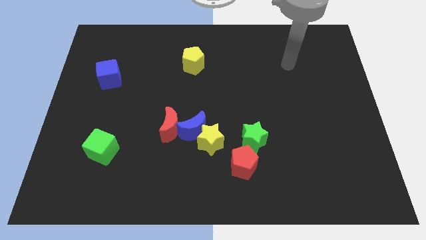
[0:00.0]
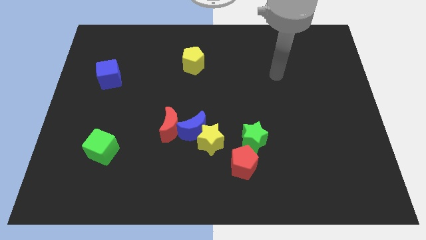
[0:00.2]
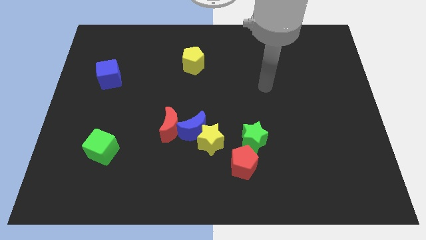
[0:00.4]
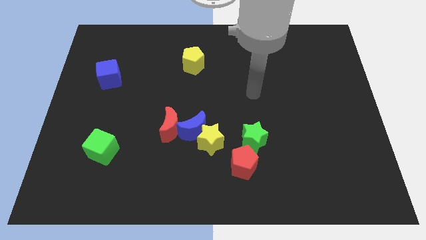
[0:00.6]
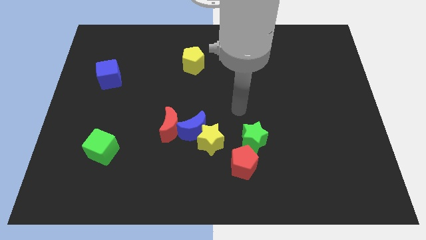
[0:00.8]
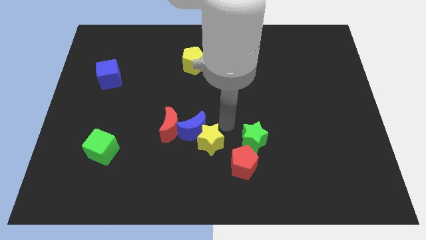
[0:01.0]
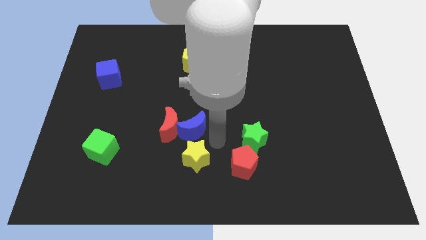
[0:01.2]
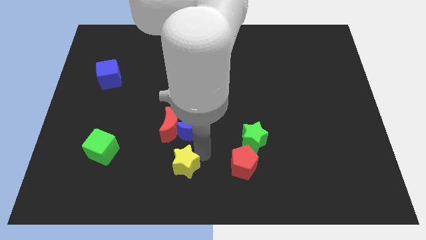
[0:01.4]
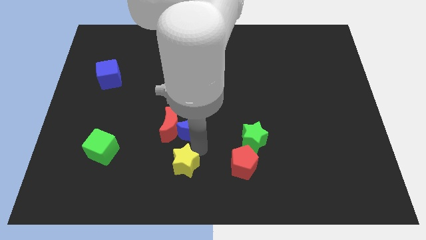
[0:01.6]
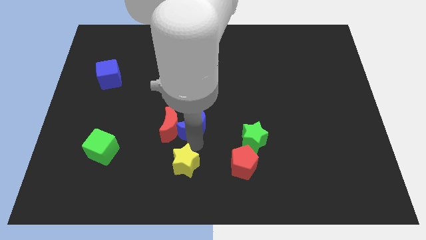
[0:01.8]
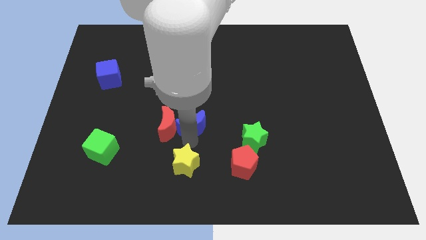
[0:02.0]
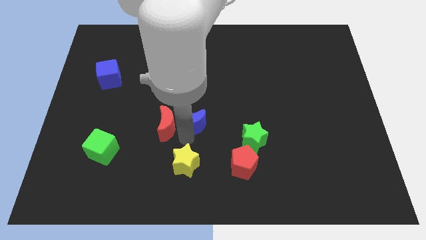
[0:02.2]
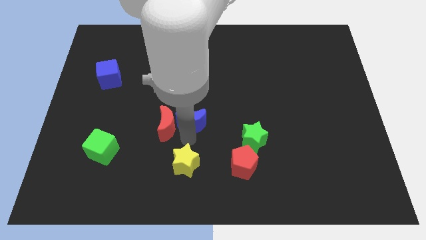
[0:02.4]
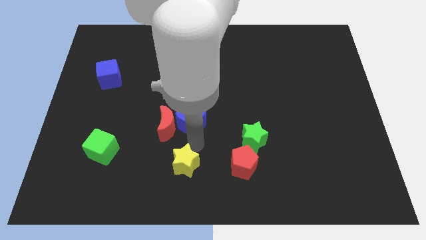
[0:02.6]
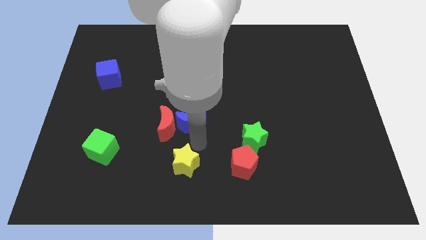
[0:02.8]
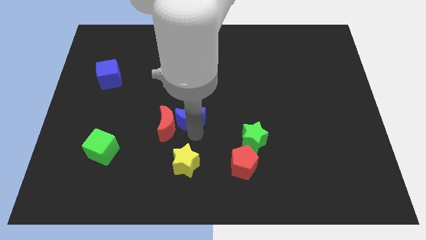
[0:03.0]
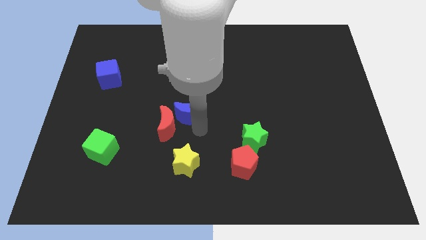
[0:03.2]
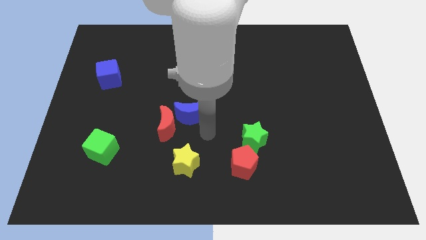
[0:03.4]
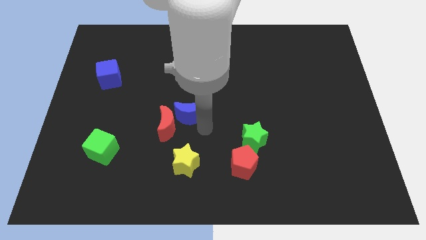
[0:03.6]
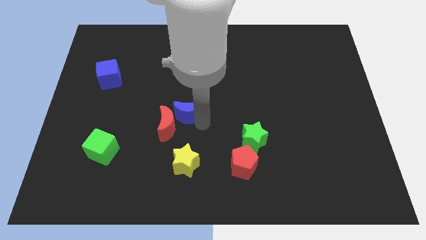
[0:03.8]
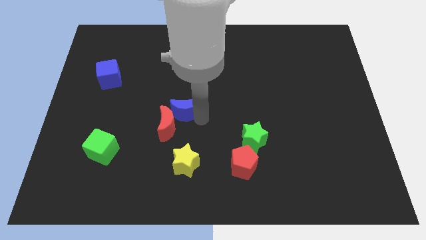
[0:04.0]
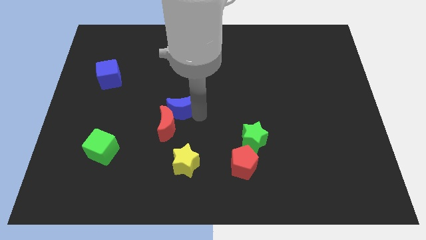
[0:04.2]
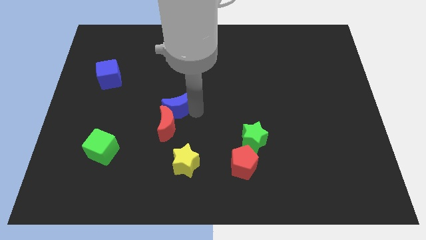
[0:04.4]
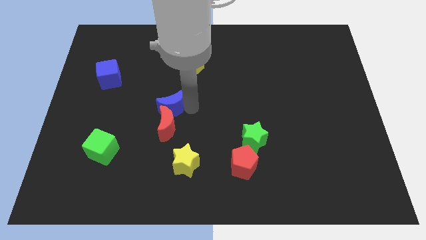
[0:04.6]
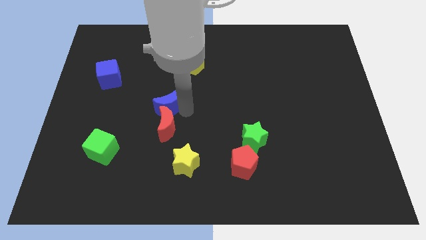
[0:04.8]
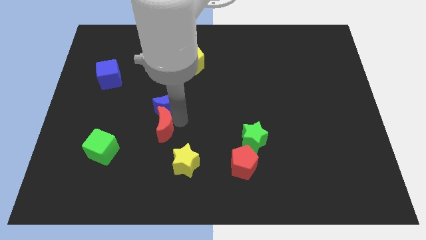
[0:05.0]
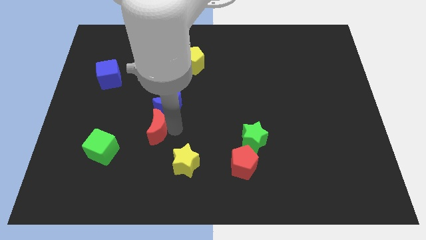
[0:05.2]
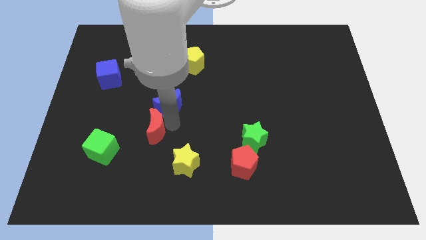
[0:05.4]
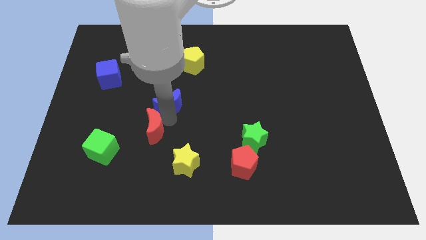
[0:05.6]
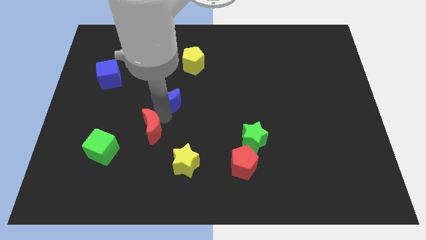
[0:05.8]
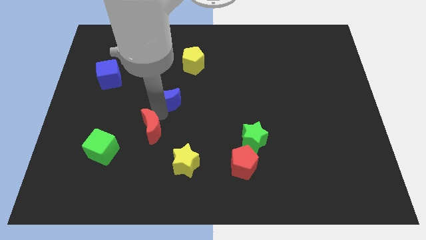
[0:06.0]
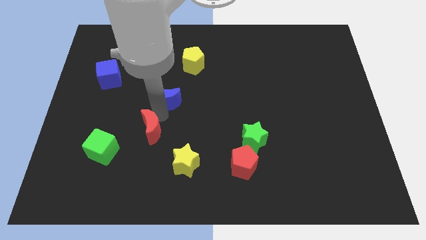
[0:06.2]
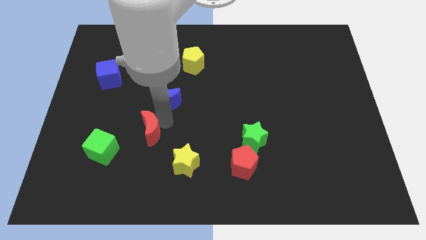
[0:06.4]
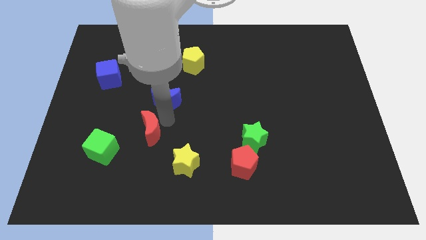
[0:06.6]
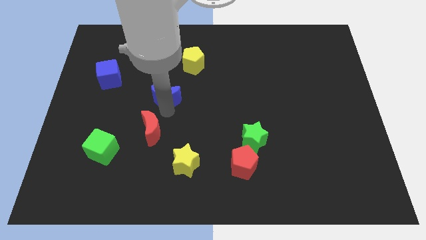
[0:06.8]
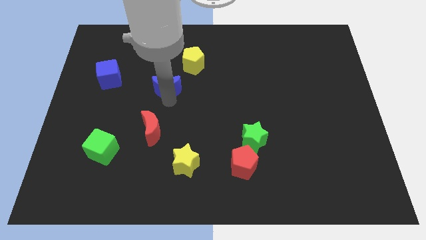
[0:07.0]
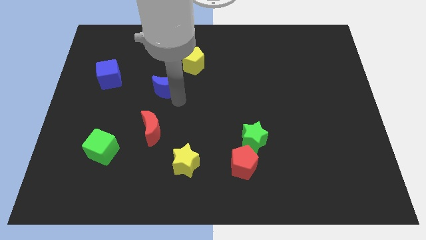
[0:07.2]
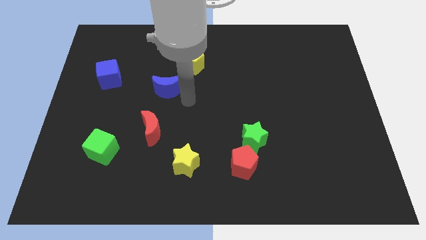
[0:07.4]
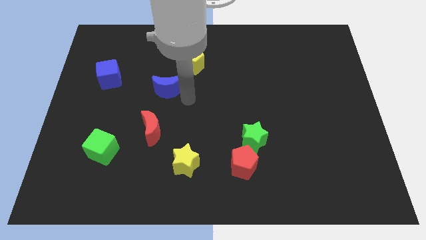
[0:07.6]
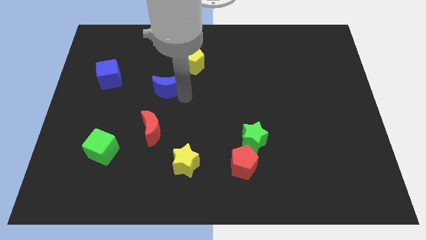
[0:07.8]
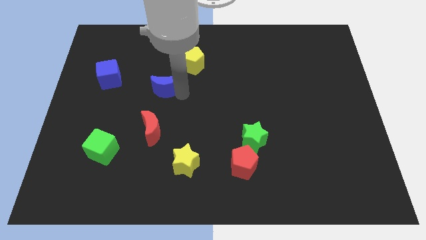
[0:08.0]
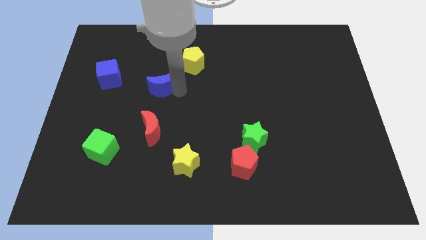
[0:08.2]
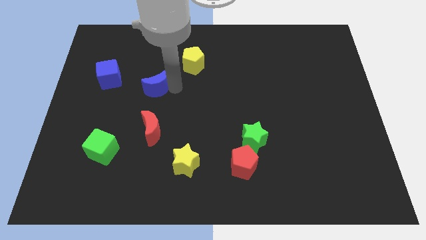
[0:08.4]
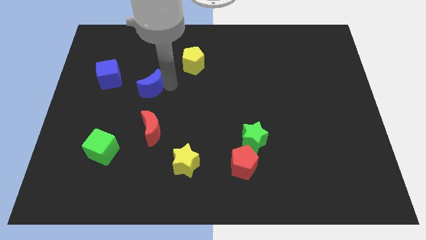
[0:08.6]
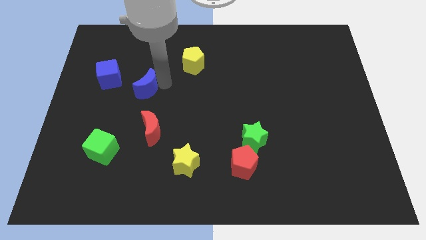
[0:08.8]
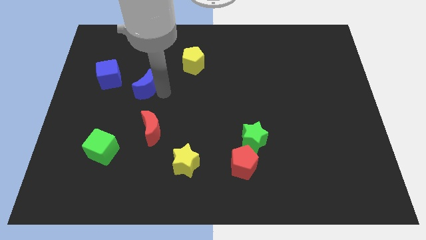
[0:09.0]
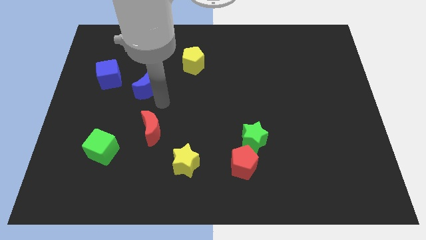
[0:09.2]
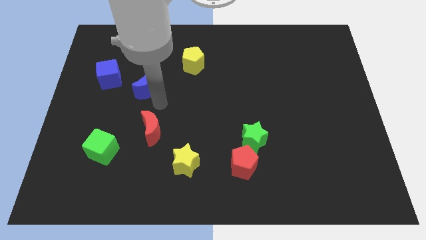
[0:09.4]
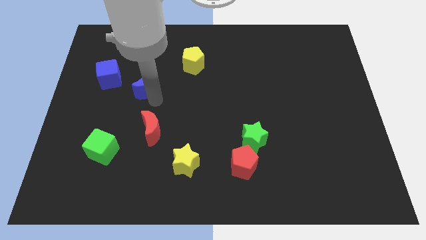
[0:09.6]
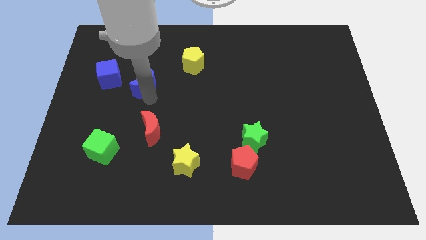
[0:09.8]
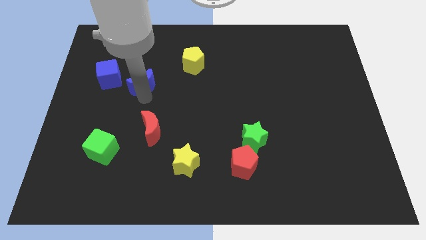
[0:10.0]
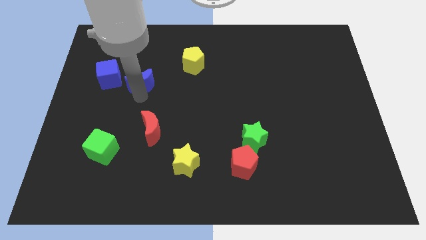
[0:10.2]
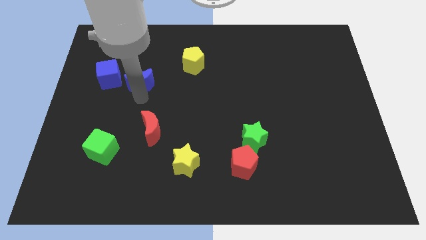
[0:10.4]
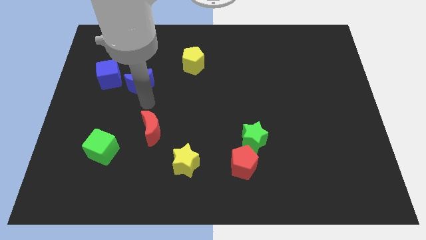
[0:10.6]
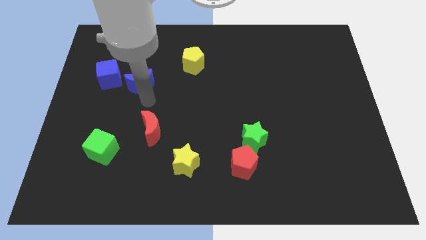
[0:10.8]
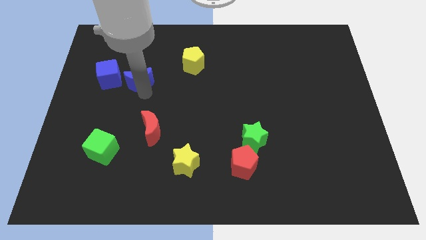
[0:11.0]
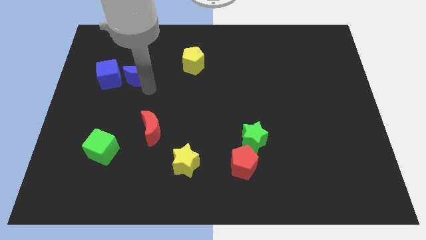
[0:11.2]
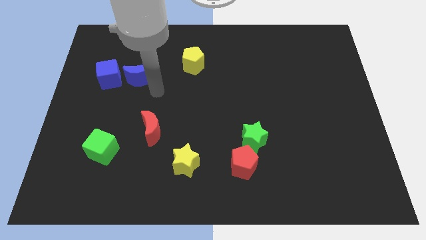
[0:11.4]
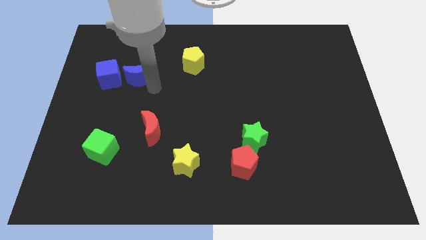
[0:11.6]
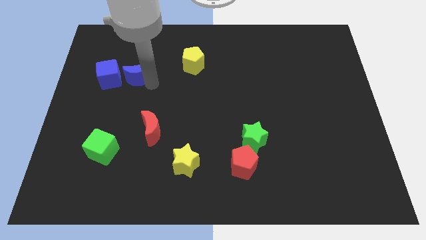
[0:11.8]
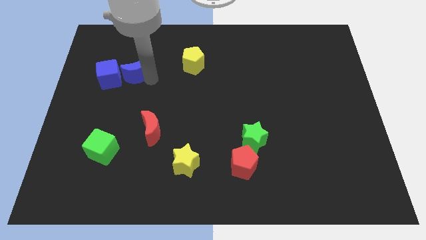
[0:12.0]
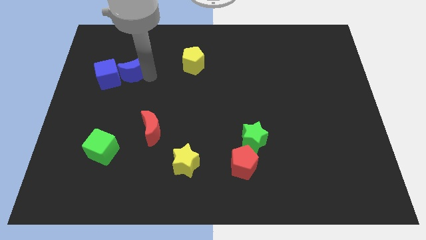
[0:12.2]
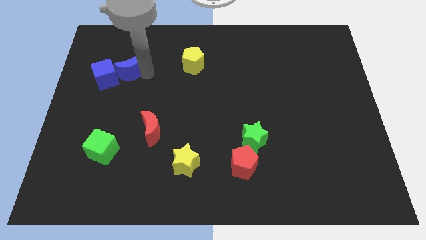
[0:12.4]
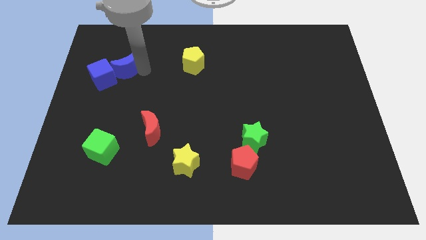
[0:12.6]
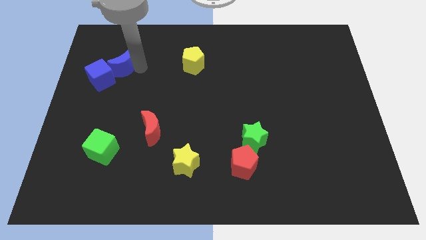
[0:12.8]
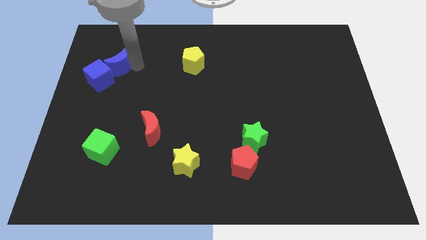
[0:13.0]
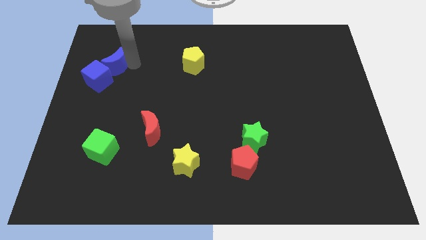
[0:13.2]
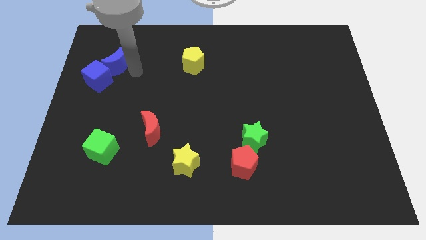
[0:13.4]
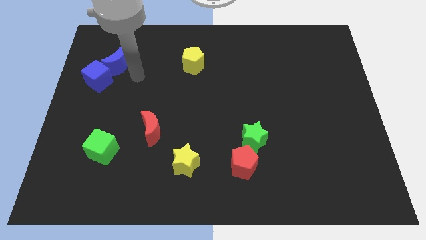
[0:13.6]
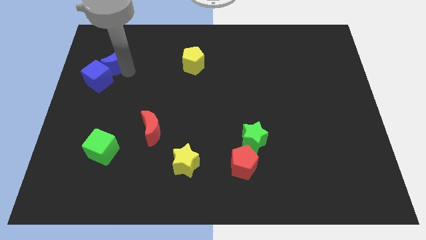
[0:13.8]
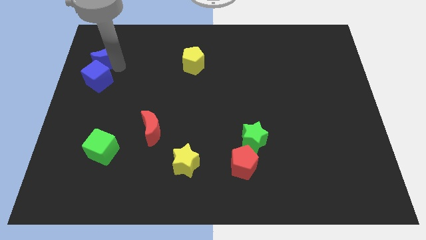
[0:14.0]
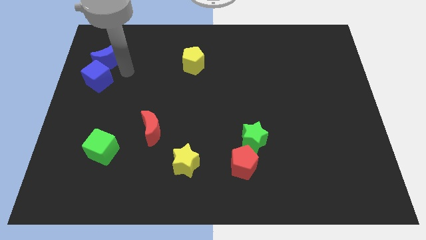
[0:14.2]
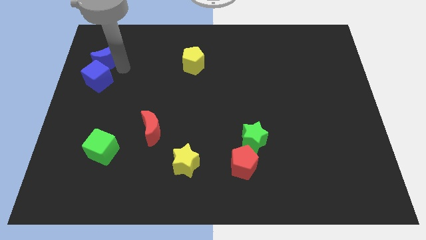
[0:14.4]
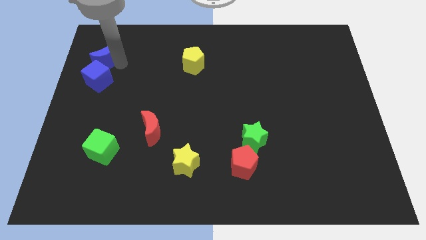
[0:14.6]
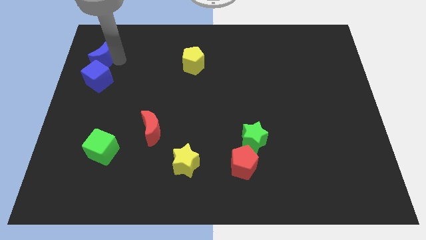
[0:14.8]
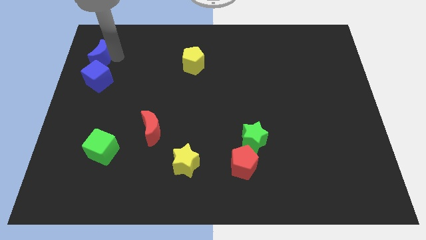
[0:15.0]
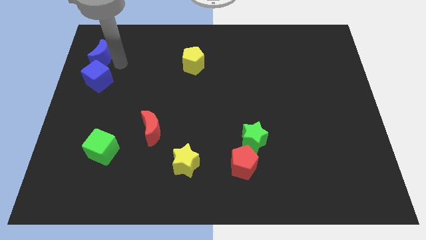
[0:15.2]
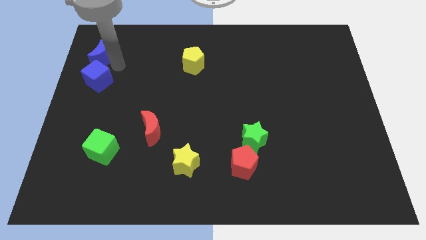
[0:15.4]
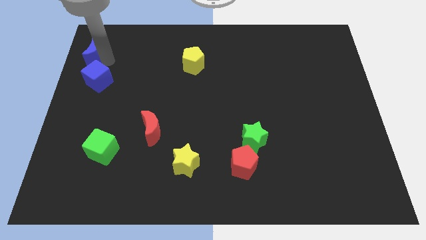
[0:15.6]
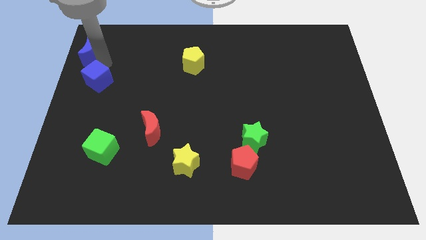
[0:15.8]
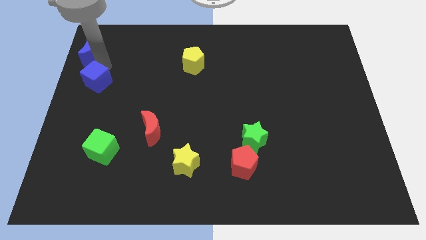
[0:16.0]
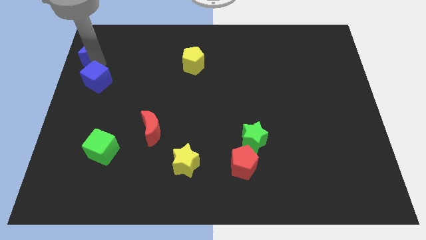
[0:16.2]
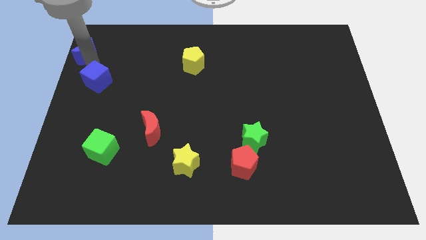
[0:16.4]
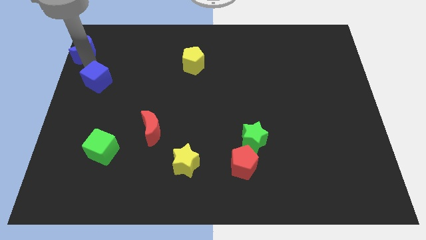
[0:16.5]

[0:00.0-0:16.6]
push the blue moon to the top left of the board
